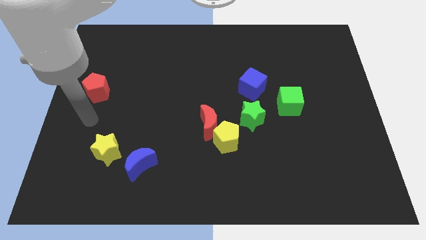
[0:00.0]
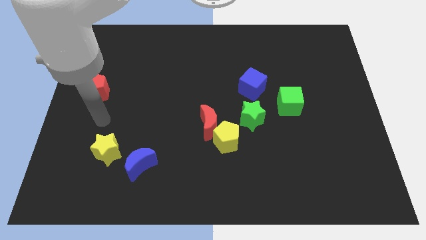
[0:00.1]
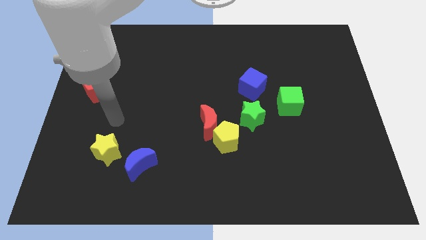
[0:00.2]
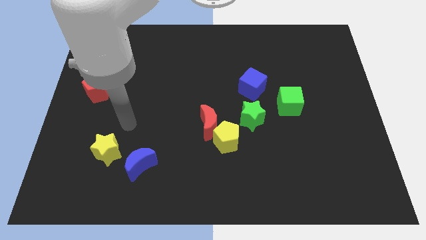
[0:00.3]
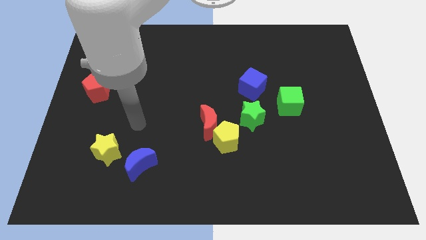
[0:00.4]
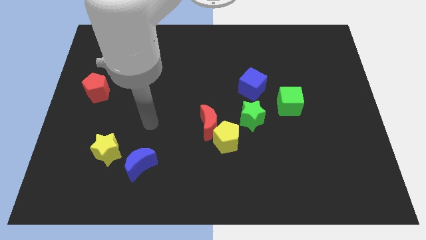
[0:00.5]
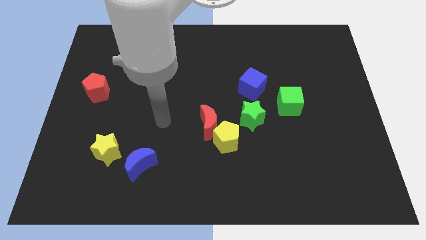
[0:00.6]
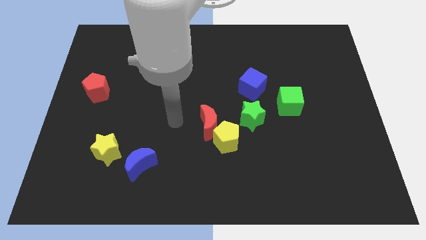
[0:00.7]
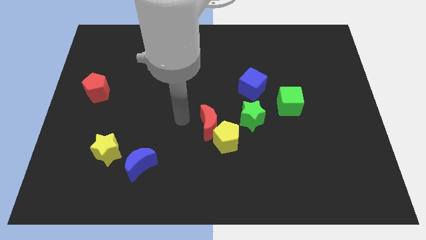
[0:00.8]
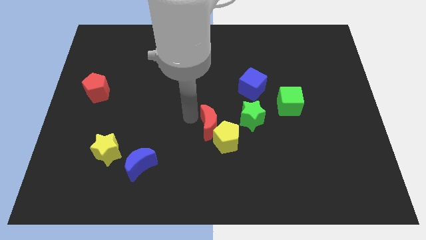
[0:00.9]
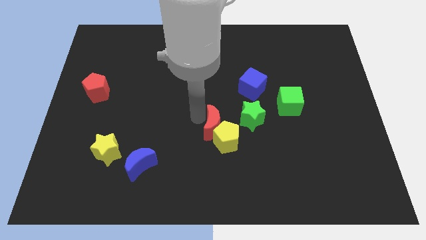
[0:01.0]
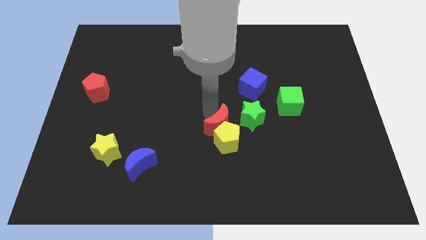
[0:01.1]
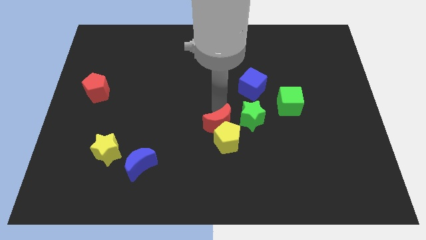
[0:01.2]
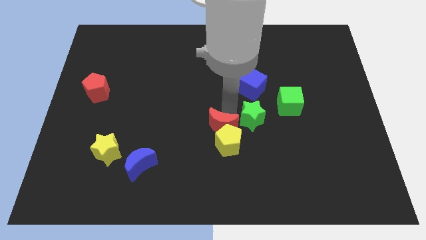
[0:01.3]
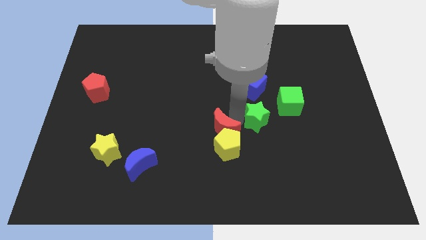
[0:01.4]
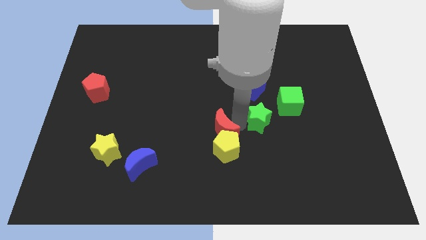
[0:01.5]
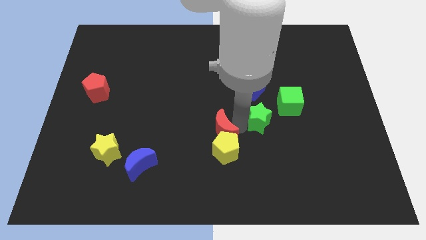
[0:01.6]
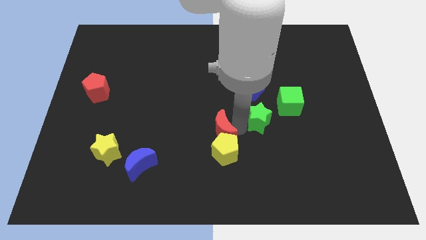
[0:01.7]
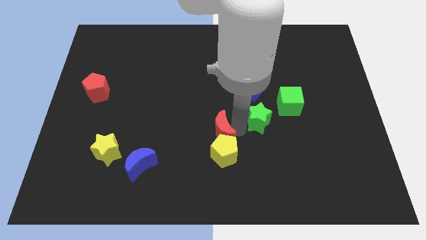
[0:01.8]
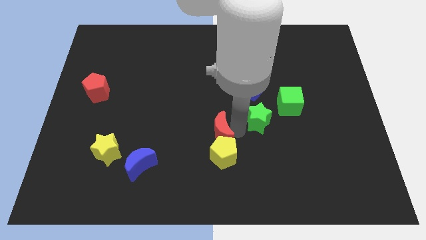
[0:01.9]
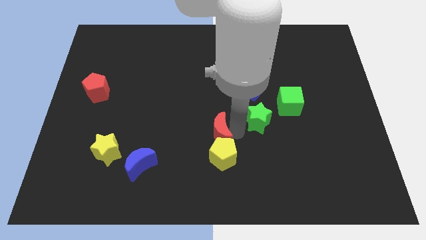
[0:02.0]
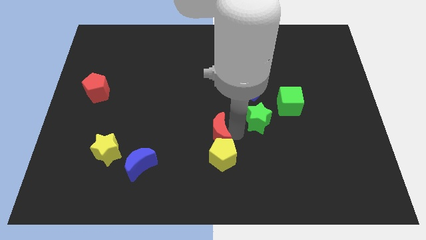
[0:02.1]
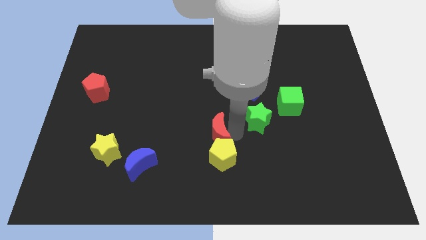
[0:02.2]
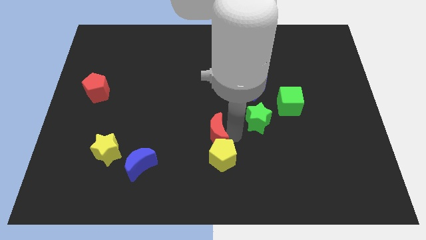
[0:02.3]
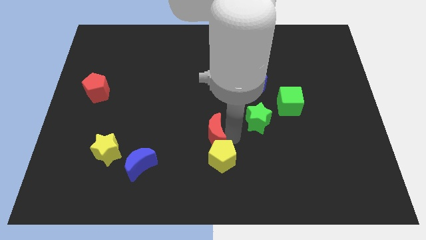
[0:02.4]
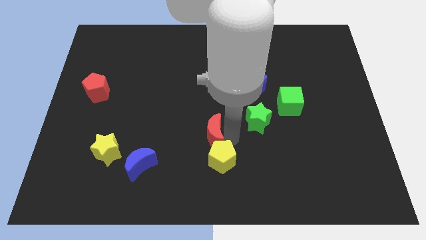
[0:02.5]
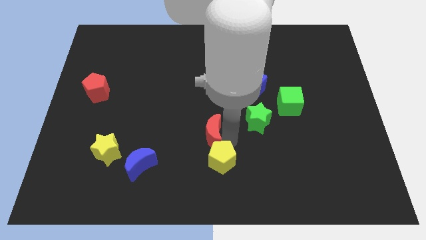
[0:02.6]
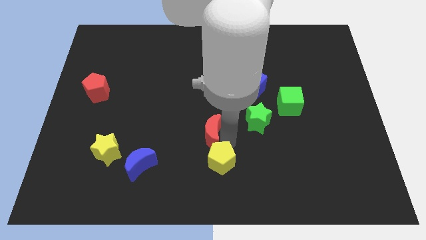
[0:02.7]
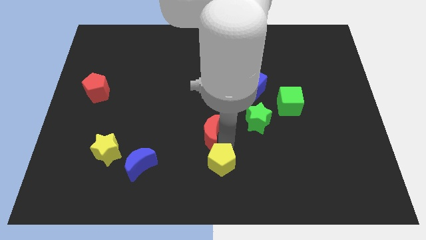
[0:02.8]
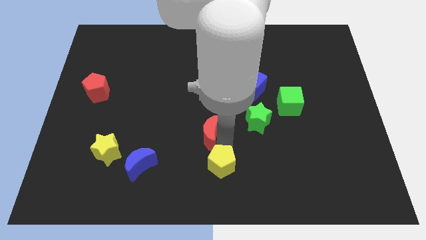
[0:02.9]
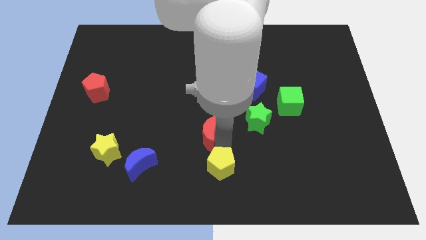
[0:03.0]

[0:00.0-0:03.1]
separate the yellow pentagon from the red moon and green star

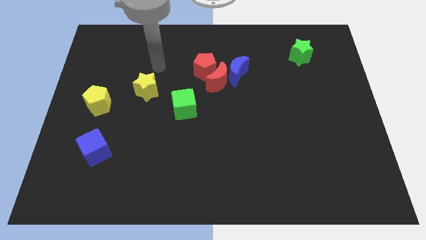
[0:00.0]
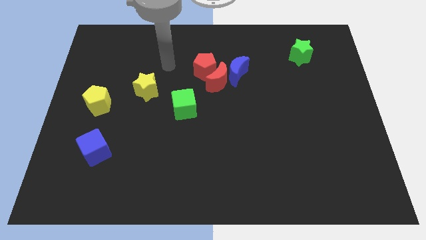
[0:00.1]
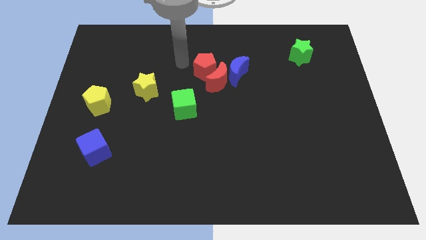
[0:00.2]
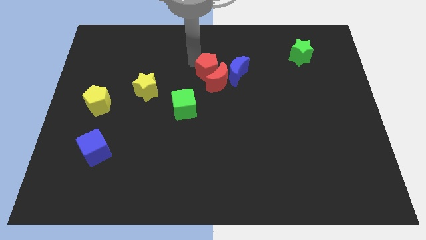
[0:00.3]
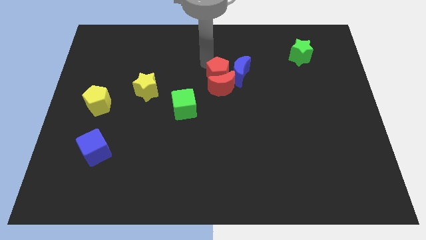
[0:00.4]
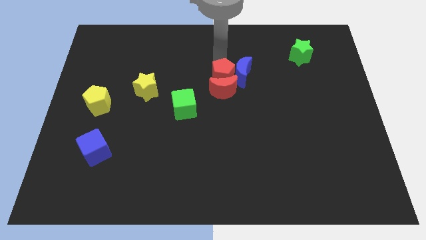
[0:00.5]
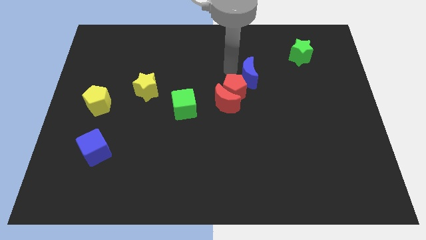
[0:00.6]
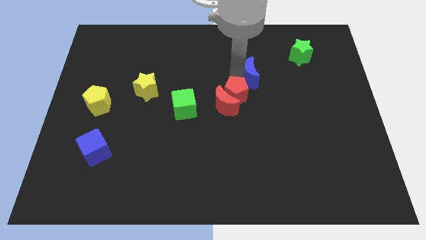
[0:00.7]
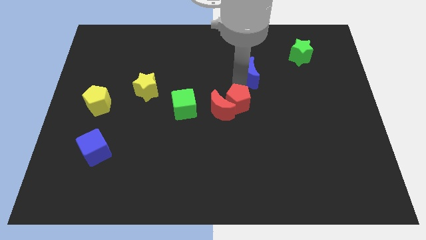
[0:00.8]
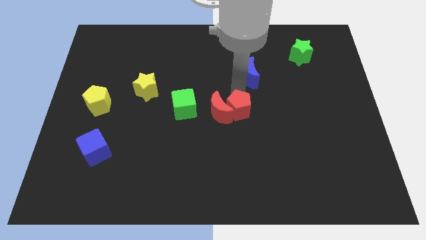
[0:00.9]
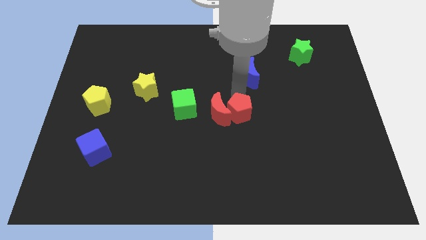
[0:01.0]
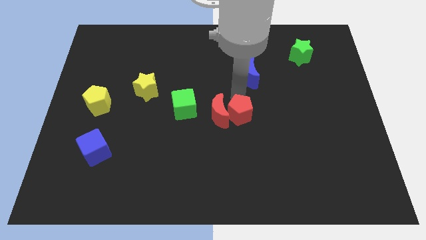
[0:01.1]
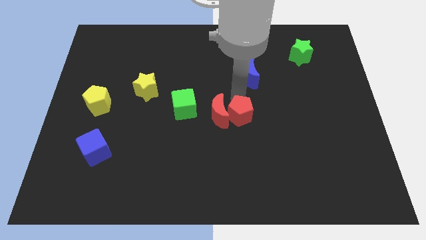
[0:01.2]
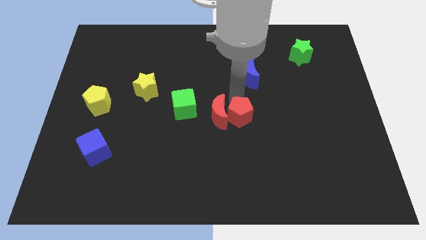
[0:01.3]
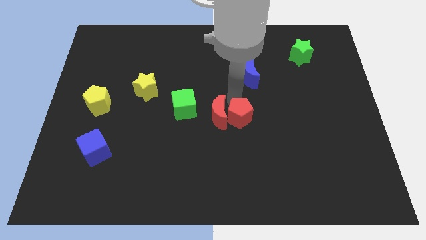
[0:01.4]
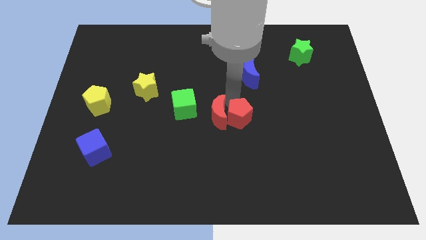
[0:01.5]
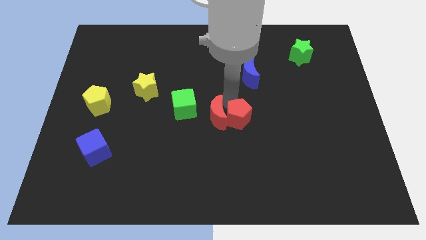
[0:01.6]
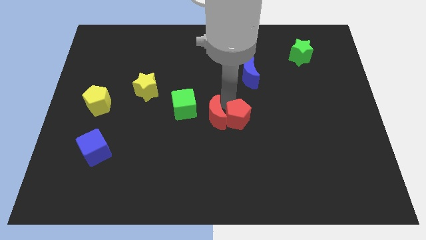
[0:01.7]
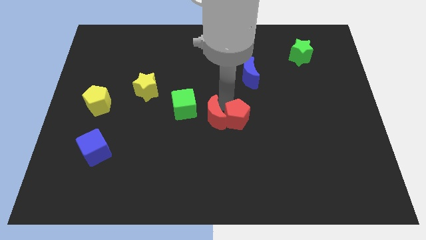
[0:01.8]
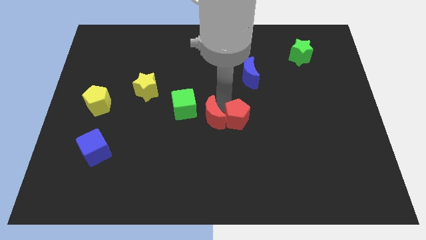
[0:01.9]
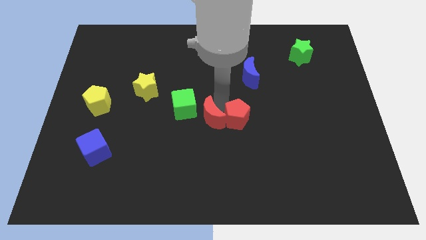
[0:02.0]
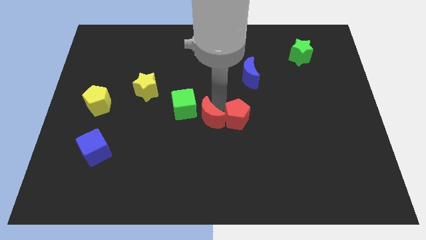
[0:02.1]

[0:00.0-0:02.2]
separate the red moon from the red pentagon and blue moon

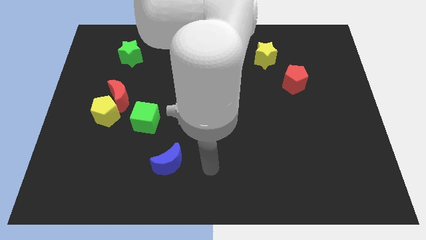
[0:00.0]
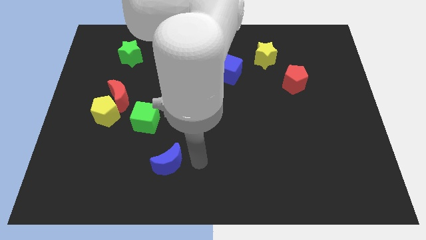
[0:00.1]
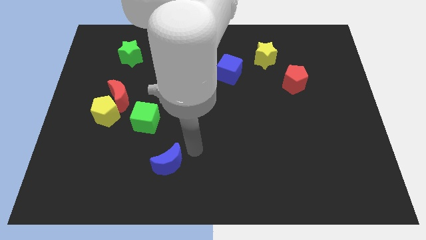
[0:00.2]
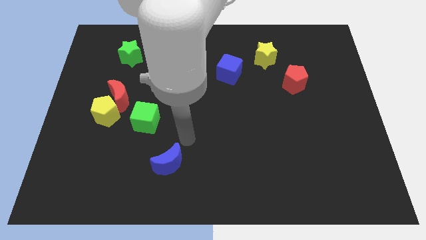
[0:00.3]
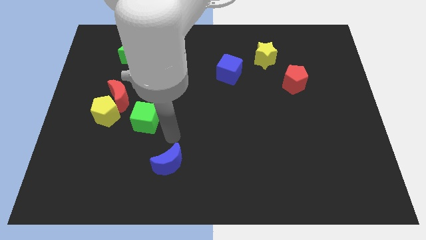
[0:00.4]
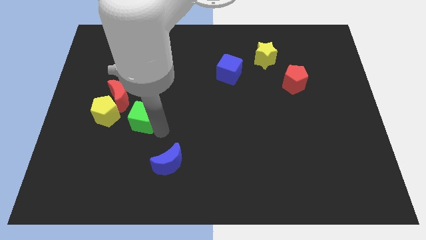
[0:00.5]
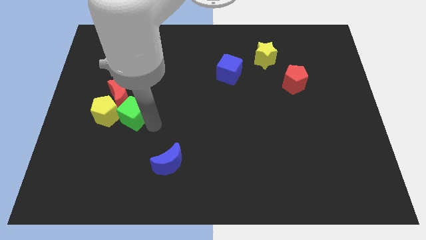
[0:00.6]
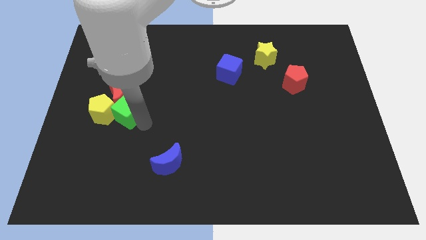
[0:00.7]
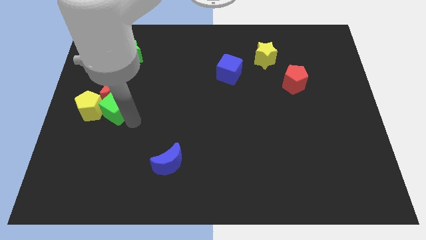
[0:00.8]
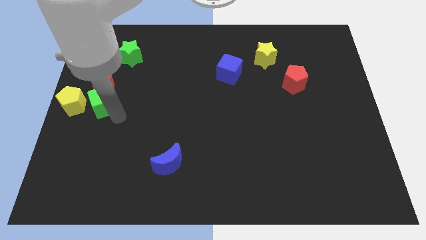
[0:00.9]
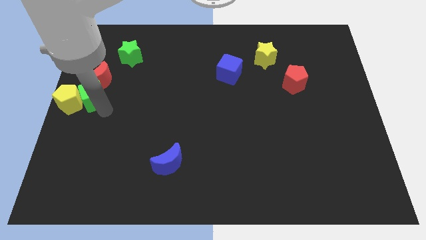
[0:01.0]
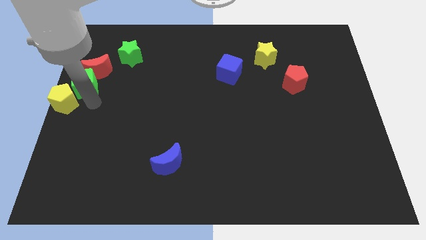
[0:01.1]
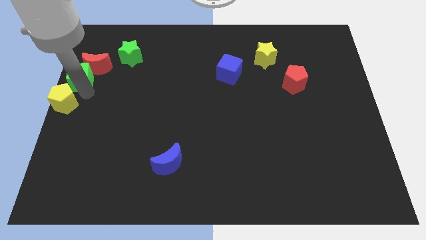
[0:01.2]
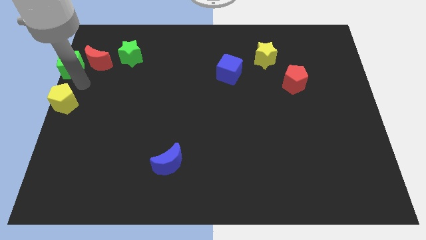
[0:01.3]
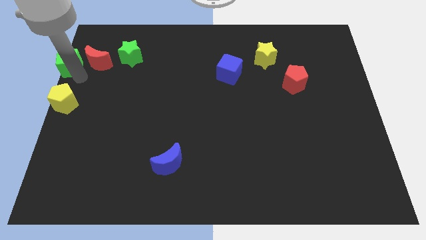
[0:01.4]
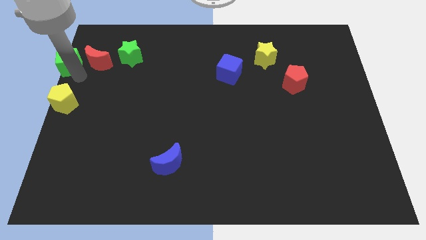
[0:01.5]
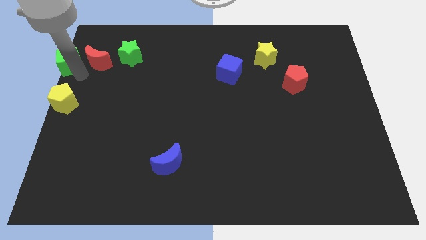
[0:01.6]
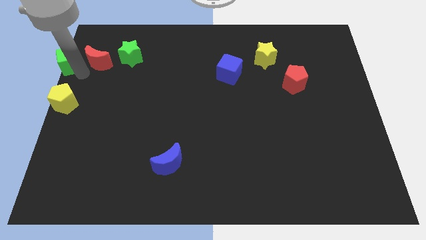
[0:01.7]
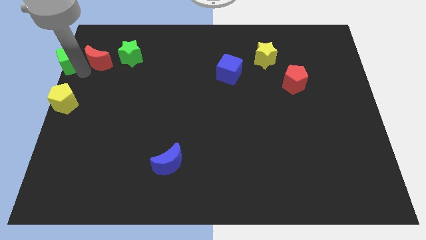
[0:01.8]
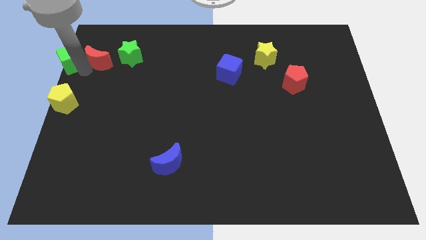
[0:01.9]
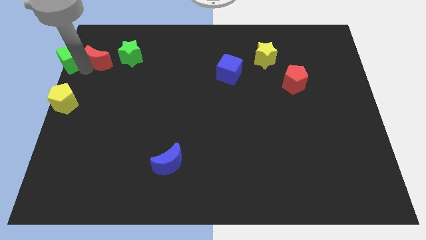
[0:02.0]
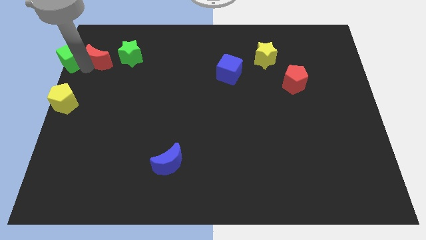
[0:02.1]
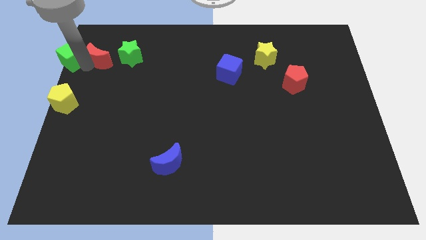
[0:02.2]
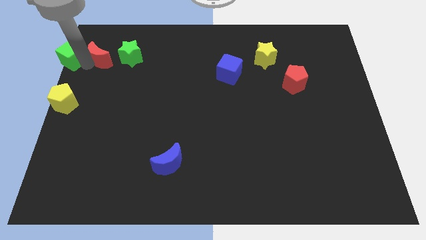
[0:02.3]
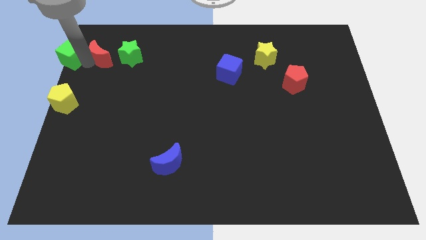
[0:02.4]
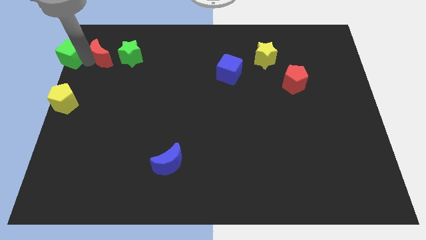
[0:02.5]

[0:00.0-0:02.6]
move the red moon away from the yellow pentagon and green cube

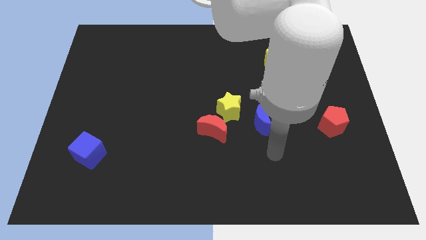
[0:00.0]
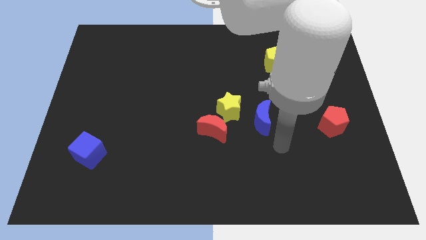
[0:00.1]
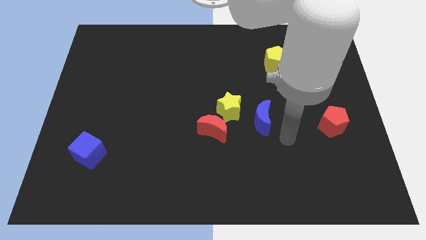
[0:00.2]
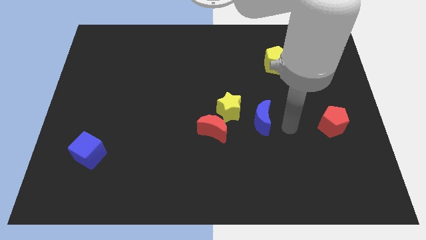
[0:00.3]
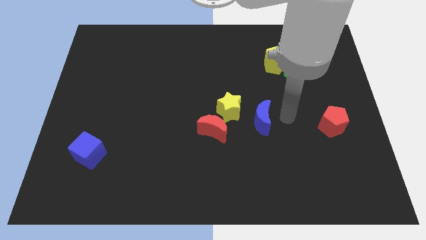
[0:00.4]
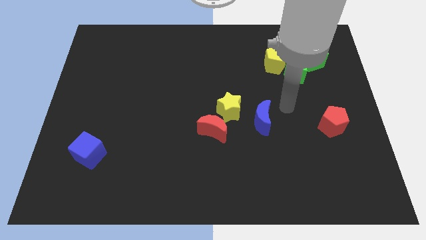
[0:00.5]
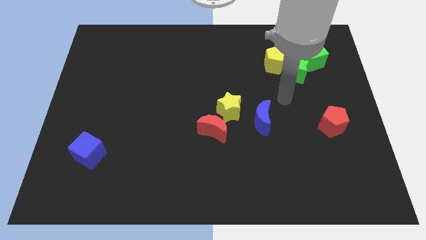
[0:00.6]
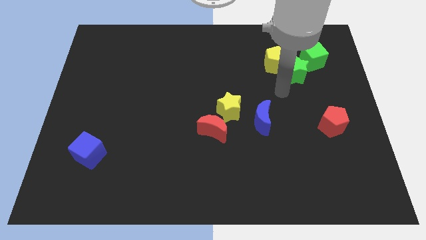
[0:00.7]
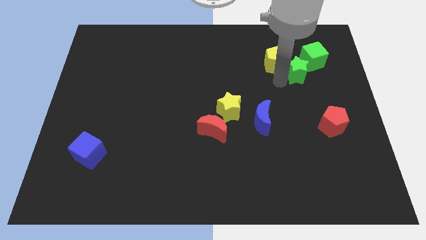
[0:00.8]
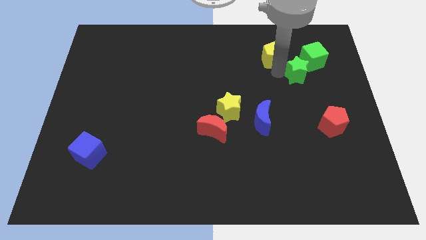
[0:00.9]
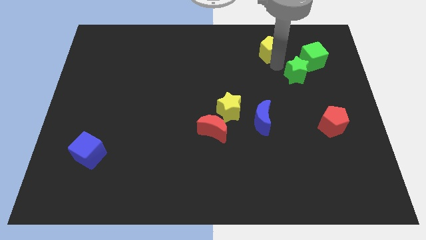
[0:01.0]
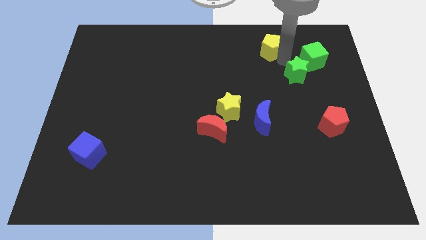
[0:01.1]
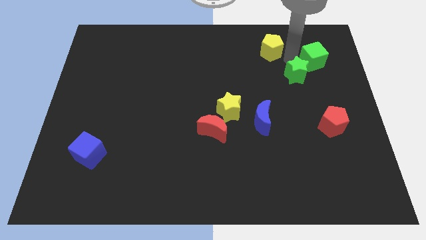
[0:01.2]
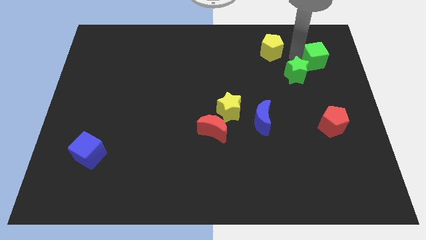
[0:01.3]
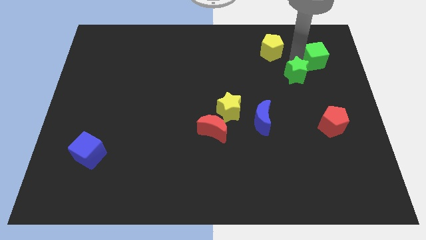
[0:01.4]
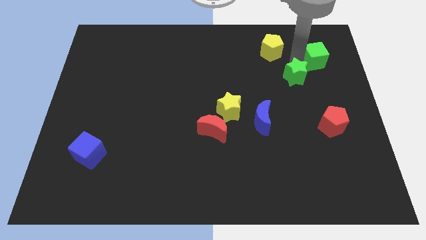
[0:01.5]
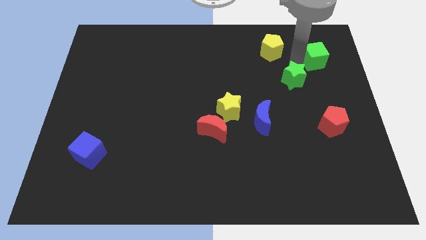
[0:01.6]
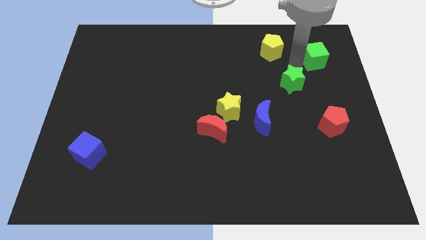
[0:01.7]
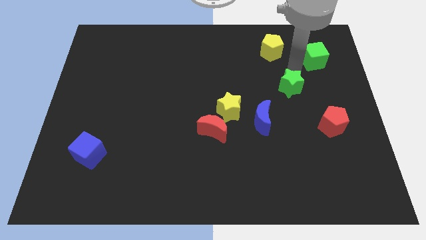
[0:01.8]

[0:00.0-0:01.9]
move the green star away from the yellow pentagon and green cube
